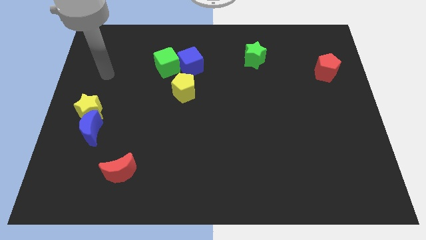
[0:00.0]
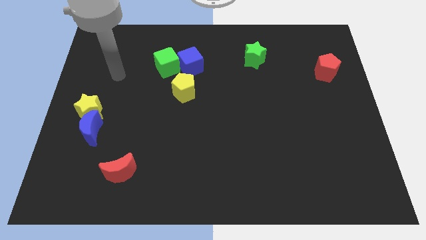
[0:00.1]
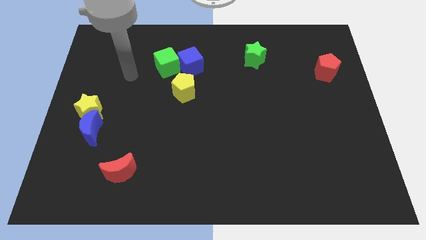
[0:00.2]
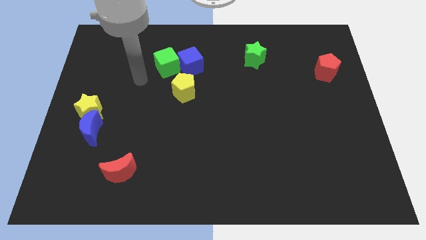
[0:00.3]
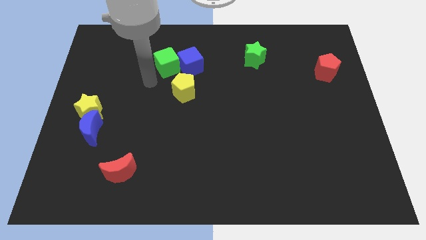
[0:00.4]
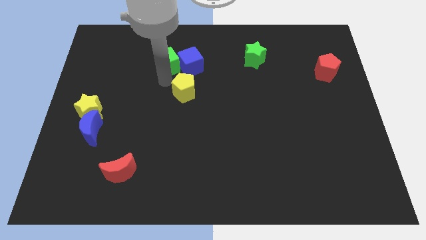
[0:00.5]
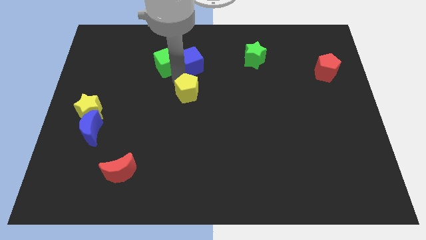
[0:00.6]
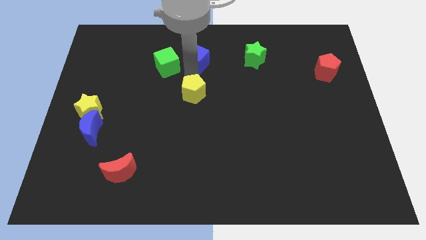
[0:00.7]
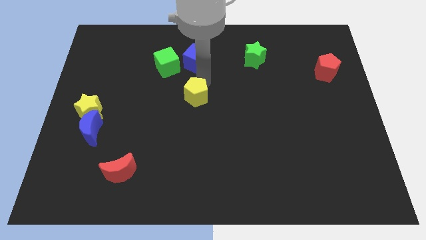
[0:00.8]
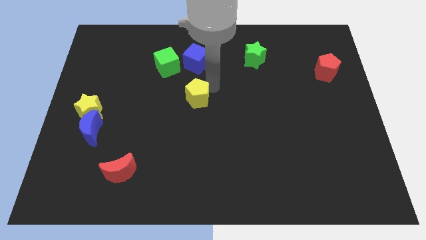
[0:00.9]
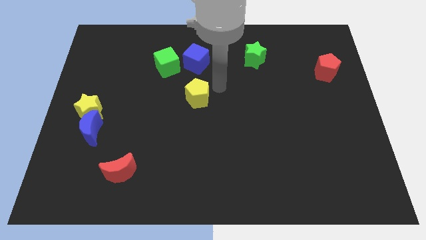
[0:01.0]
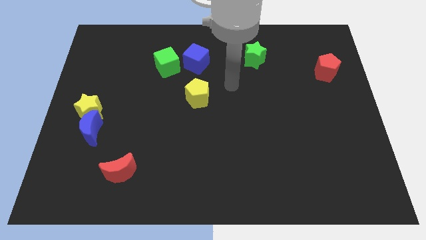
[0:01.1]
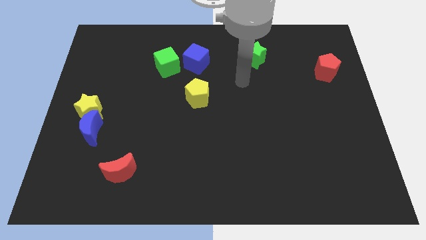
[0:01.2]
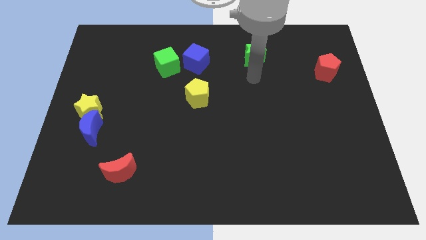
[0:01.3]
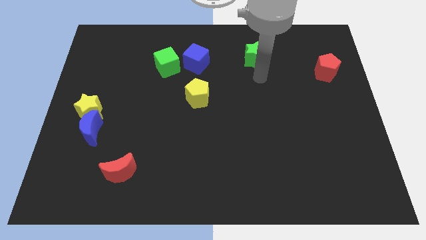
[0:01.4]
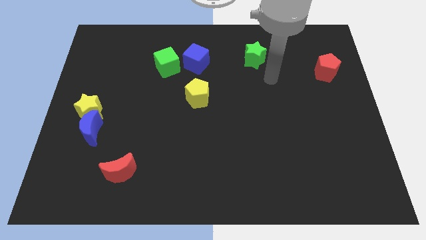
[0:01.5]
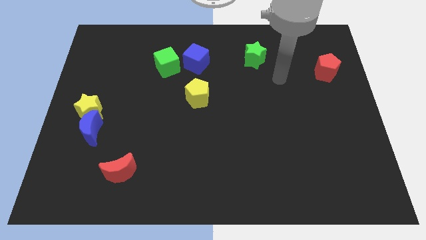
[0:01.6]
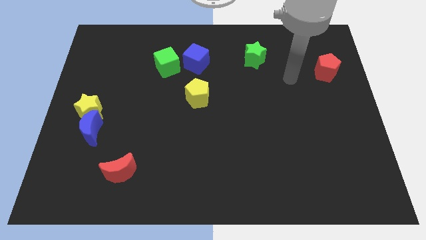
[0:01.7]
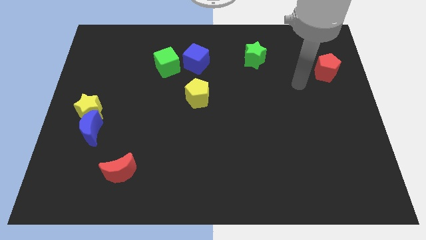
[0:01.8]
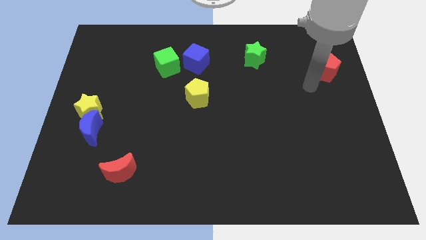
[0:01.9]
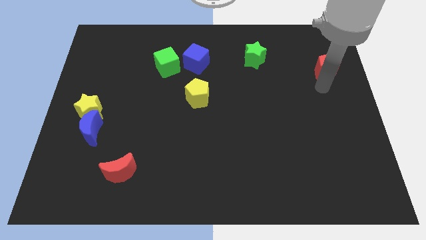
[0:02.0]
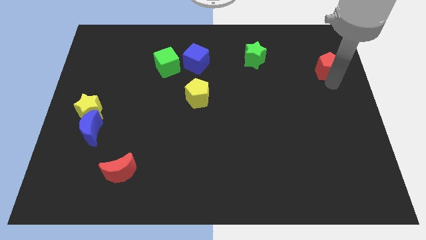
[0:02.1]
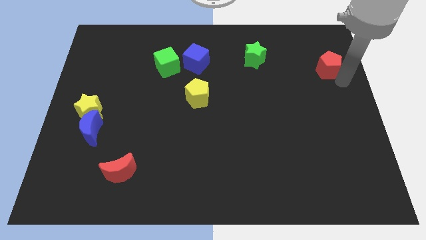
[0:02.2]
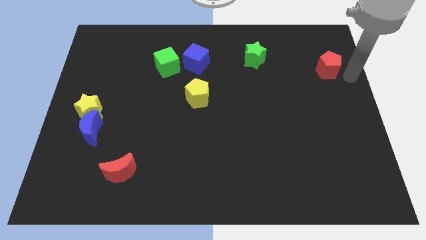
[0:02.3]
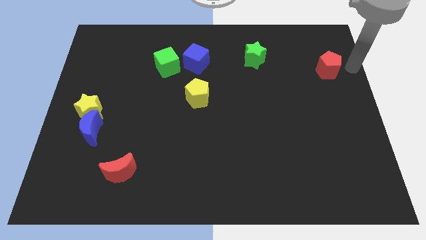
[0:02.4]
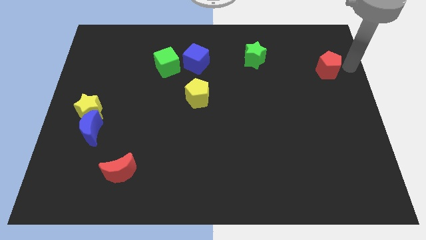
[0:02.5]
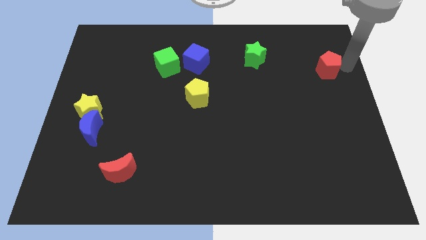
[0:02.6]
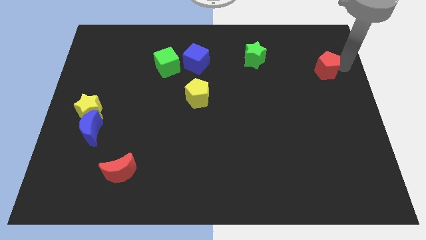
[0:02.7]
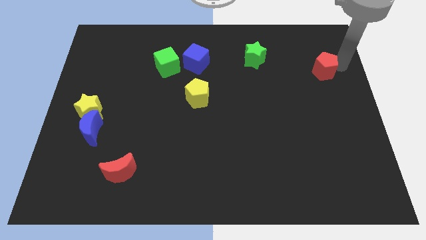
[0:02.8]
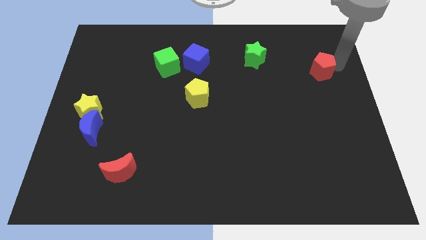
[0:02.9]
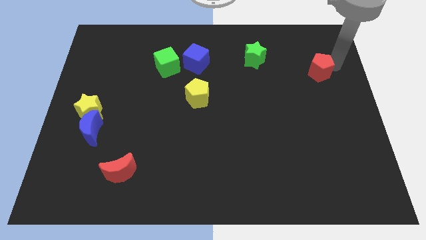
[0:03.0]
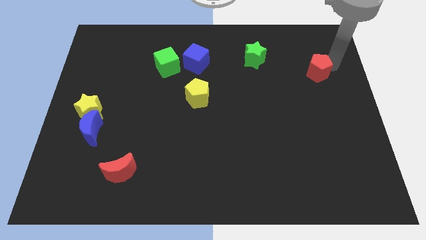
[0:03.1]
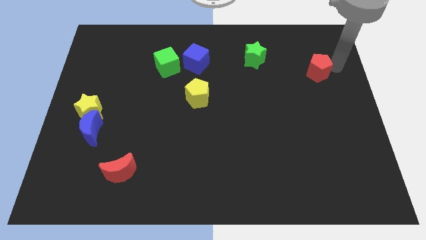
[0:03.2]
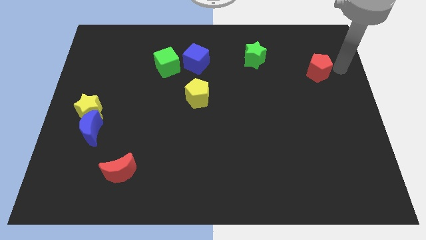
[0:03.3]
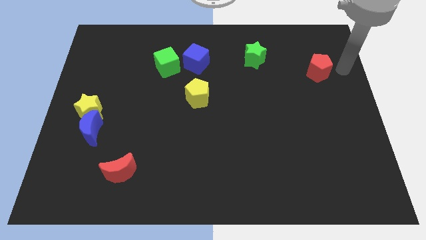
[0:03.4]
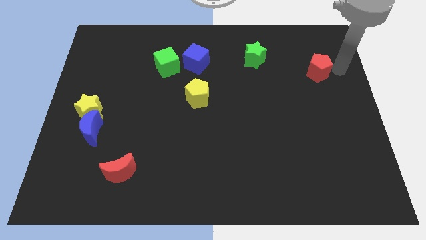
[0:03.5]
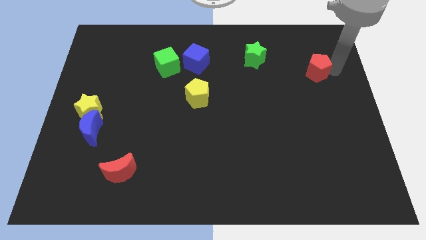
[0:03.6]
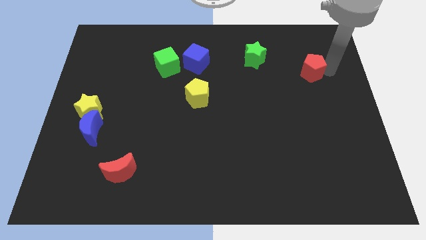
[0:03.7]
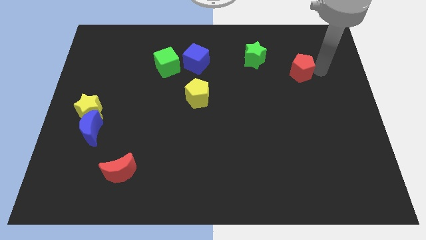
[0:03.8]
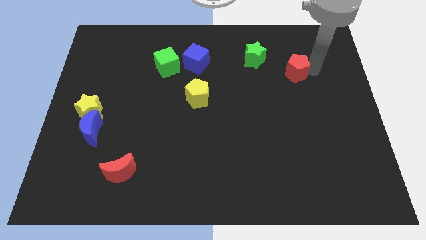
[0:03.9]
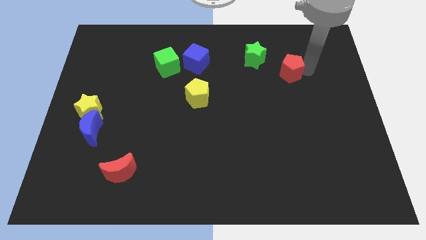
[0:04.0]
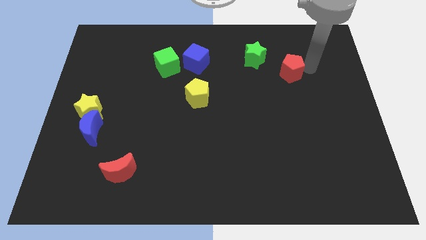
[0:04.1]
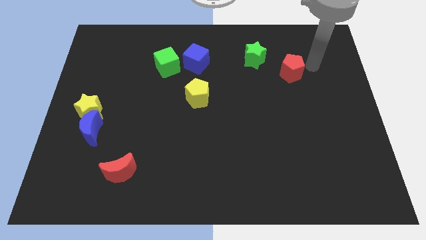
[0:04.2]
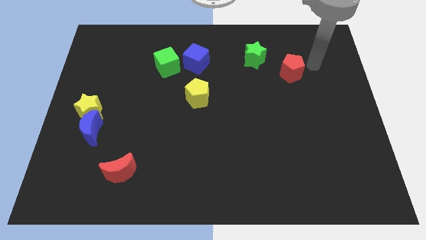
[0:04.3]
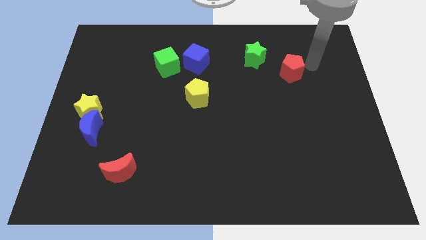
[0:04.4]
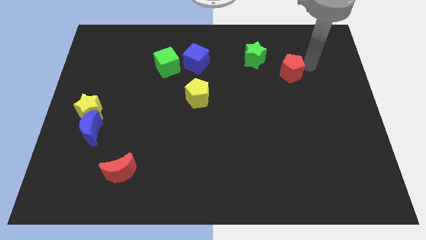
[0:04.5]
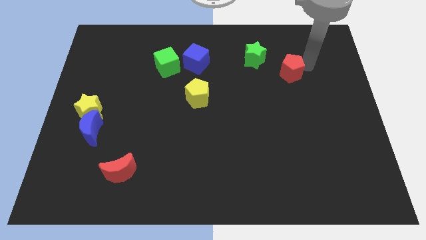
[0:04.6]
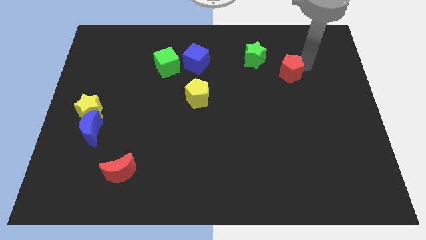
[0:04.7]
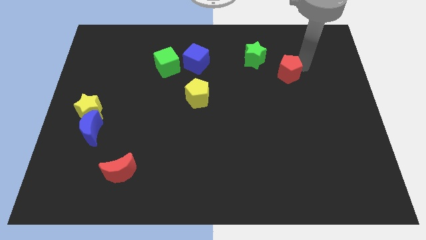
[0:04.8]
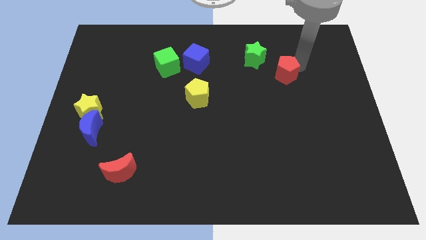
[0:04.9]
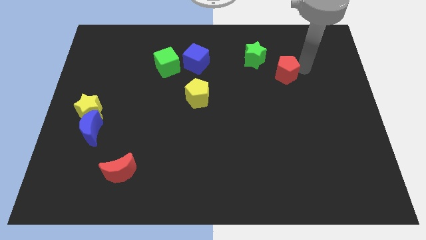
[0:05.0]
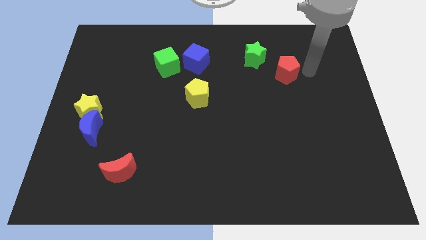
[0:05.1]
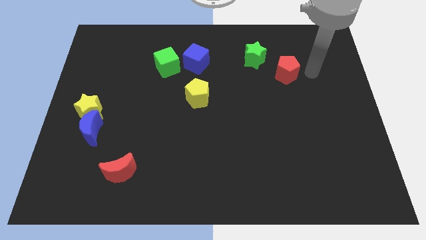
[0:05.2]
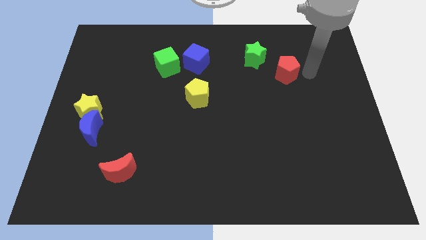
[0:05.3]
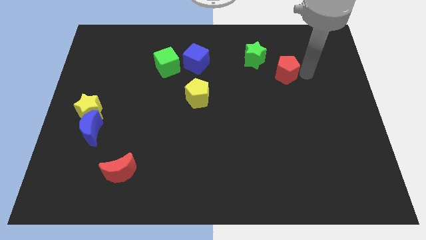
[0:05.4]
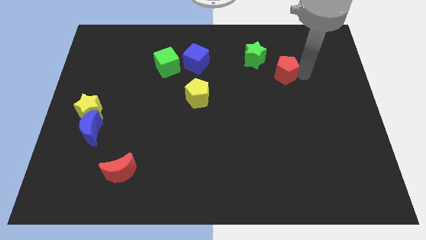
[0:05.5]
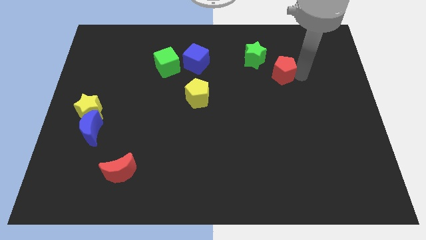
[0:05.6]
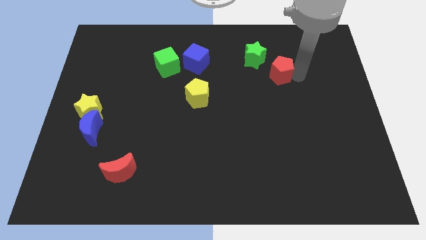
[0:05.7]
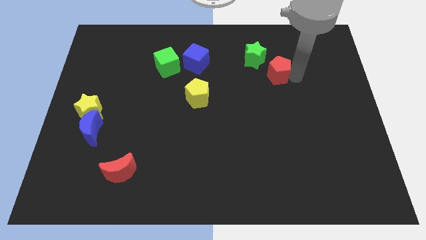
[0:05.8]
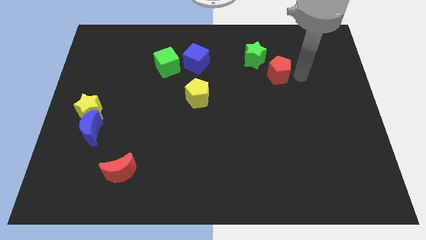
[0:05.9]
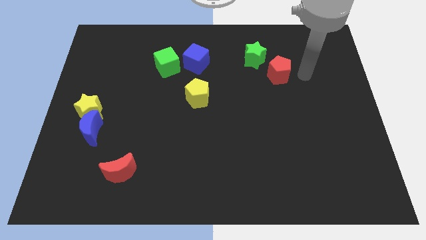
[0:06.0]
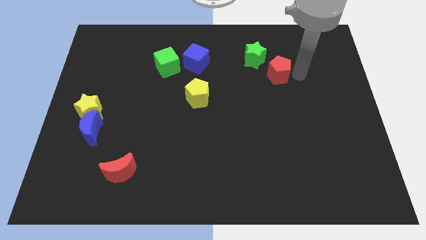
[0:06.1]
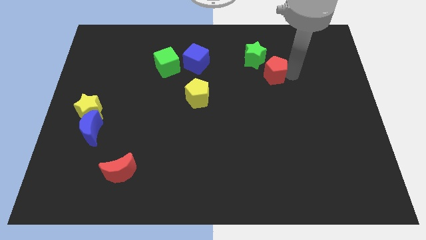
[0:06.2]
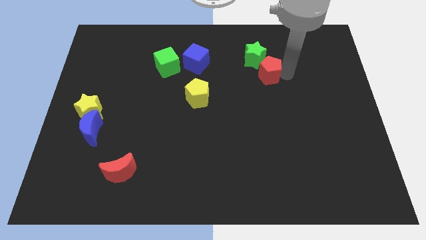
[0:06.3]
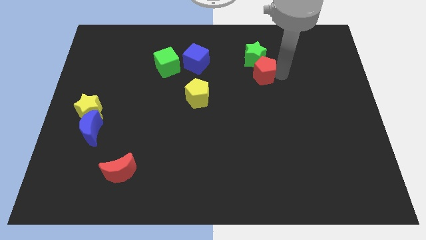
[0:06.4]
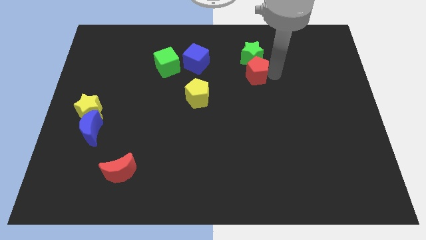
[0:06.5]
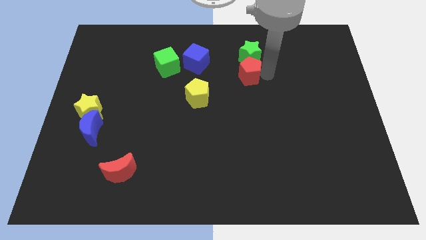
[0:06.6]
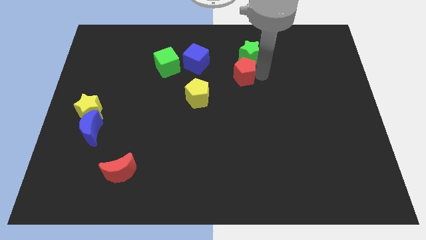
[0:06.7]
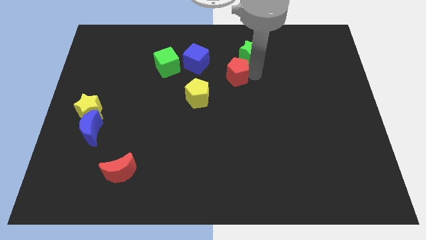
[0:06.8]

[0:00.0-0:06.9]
slide the red pentagon diagonally up and to the right of the yellow pentagon

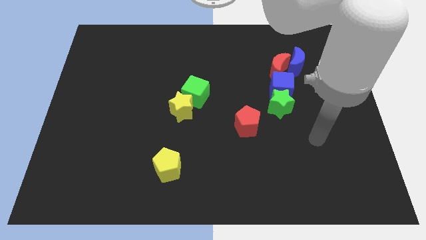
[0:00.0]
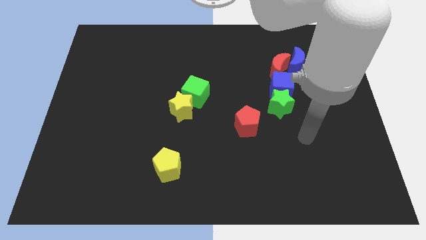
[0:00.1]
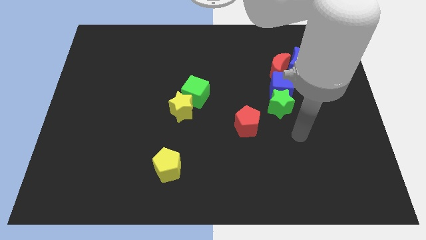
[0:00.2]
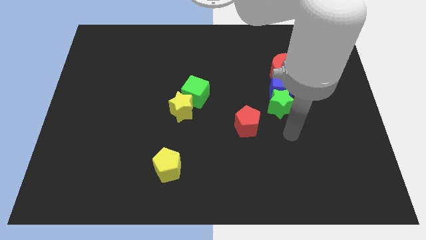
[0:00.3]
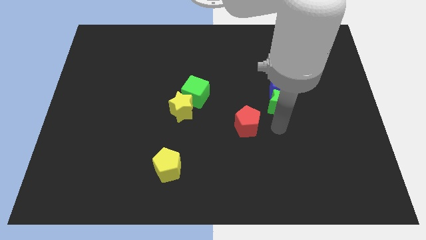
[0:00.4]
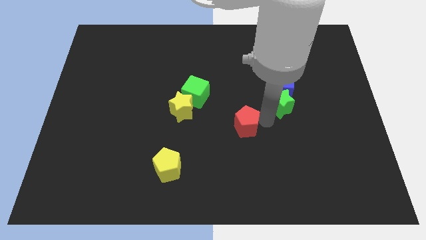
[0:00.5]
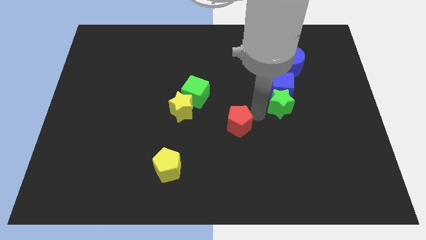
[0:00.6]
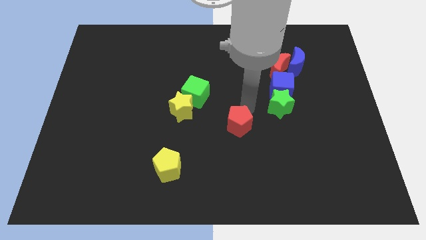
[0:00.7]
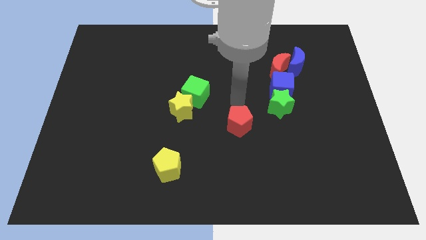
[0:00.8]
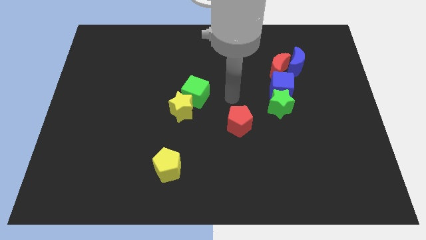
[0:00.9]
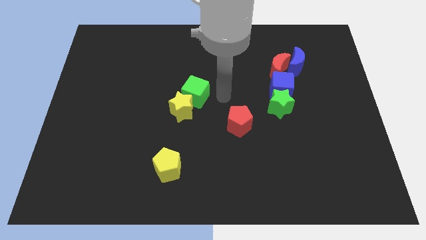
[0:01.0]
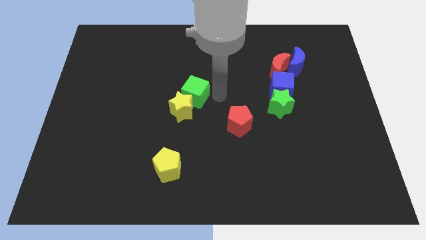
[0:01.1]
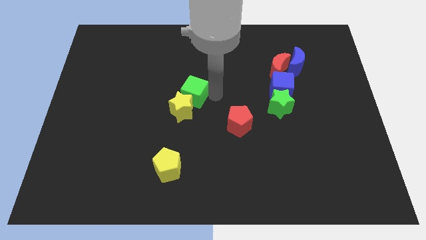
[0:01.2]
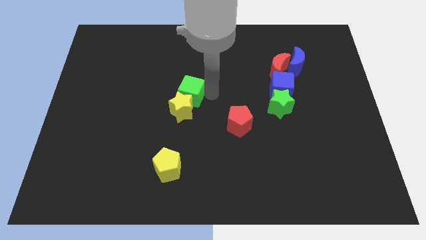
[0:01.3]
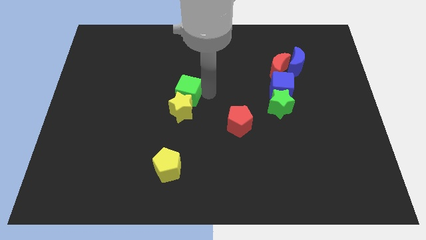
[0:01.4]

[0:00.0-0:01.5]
put the green cube to the top left of the yellow star
